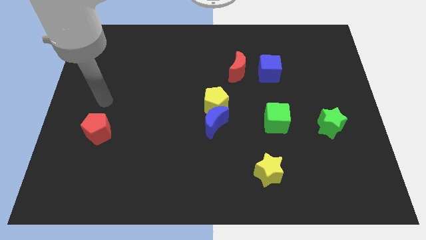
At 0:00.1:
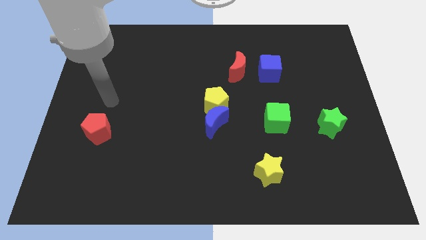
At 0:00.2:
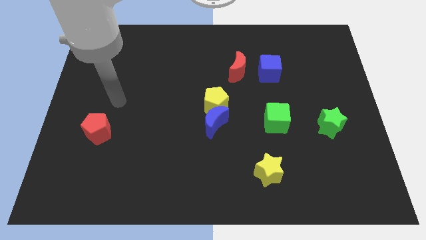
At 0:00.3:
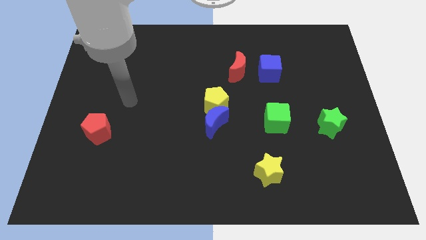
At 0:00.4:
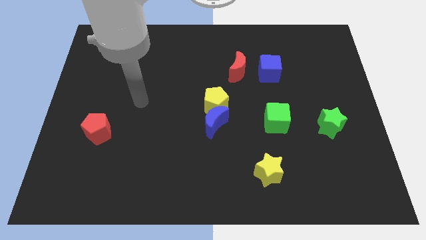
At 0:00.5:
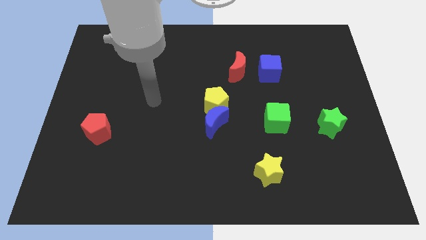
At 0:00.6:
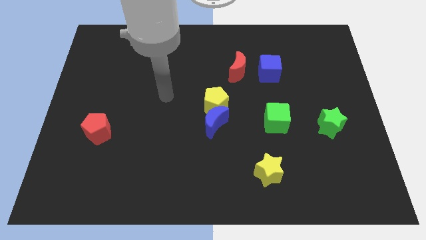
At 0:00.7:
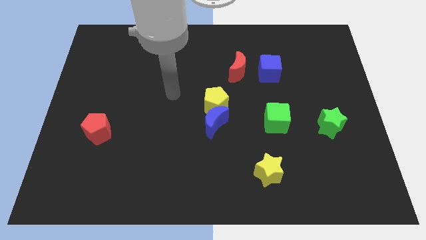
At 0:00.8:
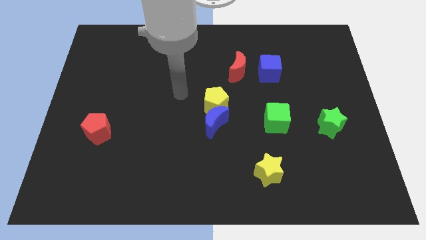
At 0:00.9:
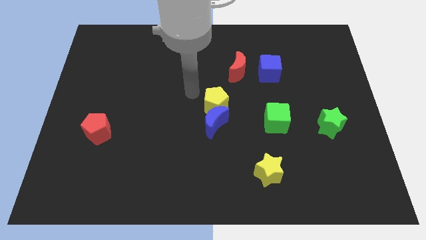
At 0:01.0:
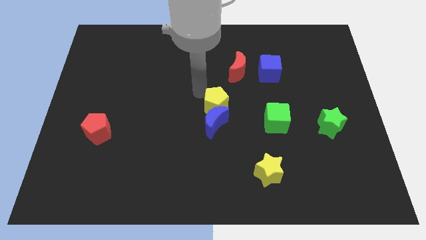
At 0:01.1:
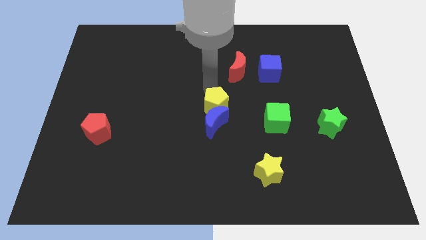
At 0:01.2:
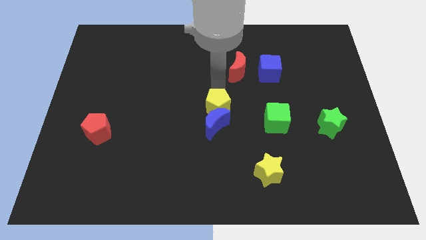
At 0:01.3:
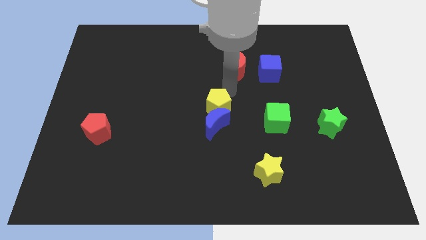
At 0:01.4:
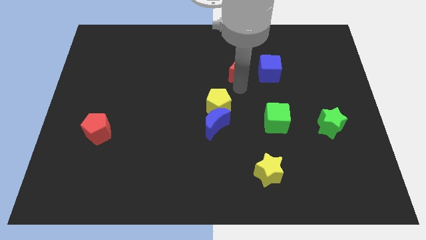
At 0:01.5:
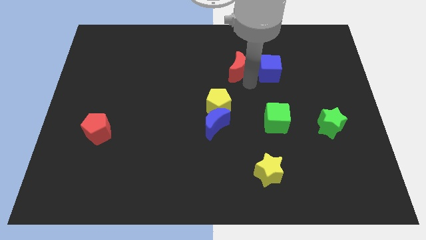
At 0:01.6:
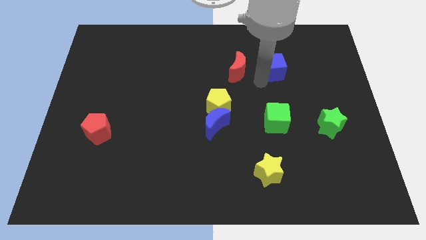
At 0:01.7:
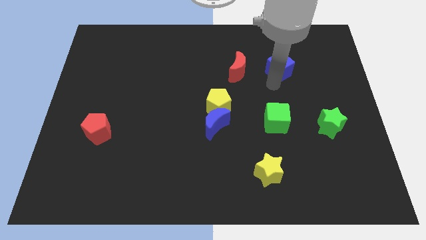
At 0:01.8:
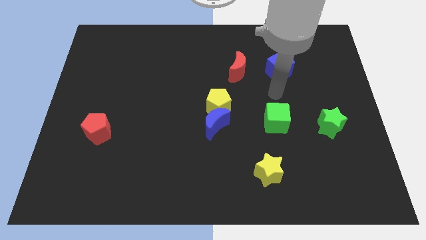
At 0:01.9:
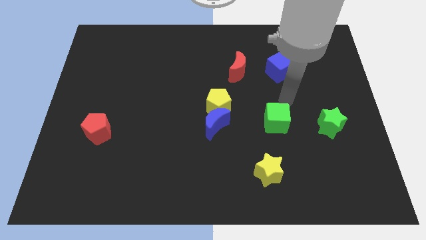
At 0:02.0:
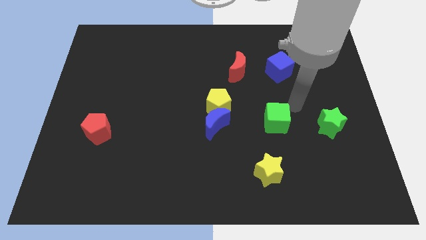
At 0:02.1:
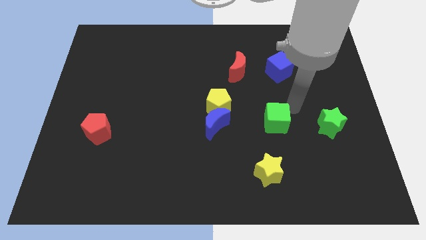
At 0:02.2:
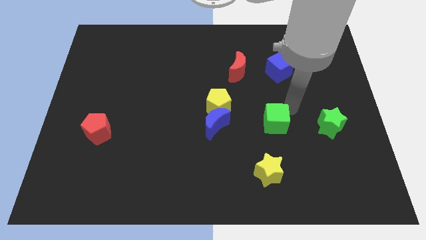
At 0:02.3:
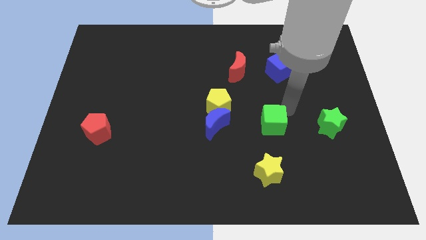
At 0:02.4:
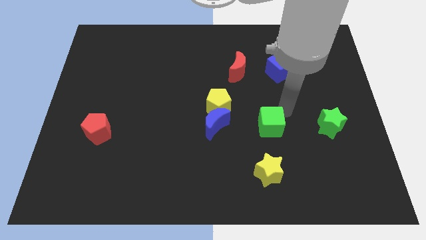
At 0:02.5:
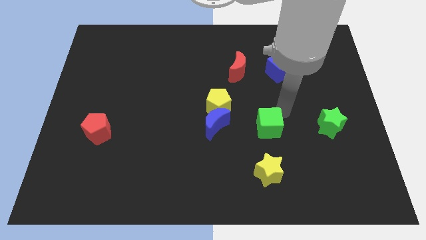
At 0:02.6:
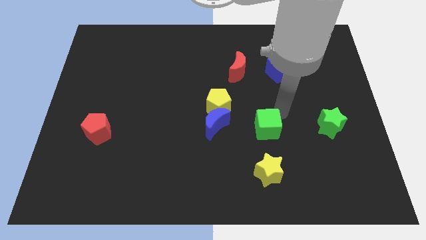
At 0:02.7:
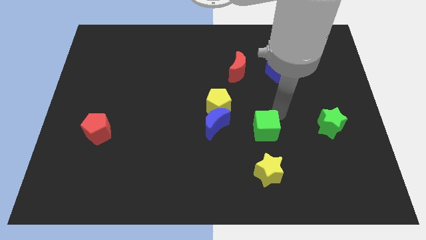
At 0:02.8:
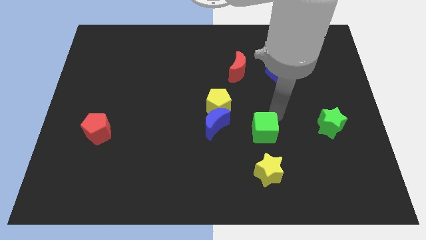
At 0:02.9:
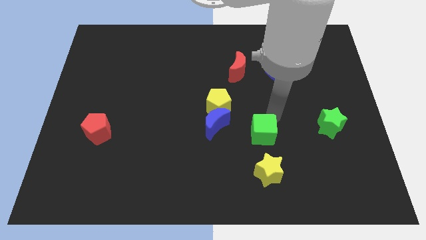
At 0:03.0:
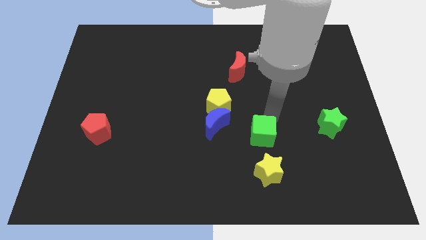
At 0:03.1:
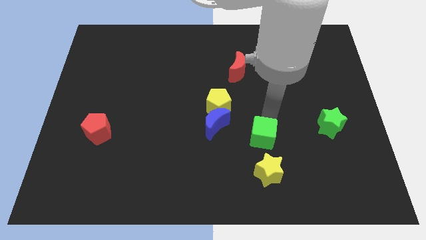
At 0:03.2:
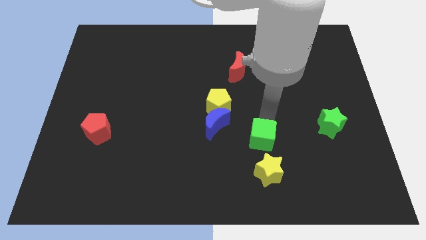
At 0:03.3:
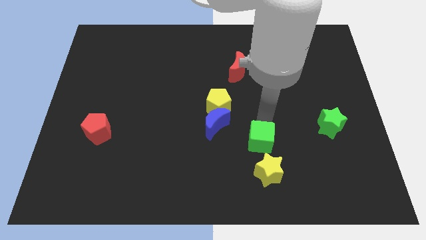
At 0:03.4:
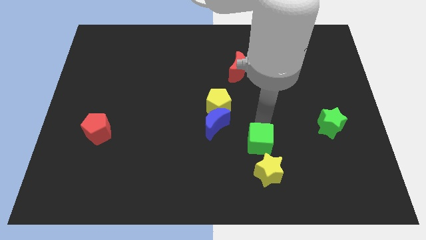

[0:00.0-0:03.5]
move the green cube somewhat downwards and then to the left

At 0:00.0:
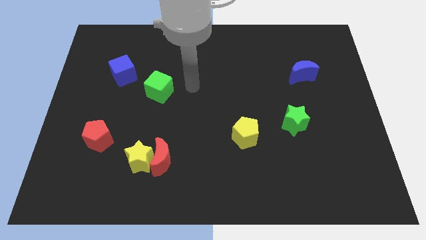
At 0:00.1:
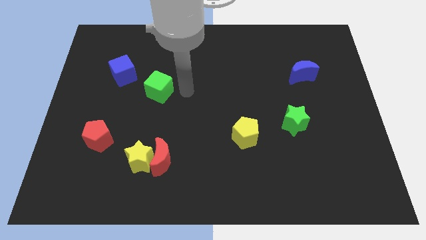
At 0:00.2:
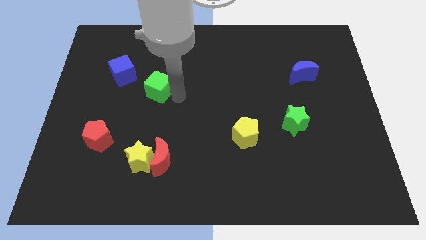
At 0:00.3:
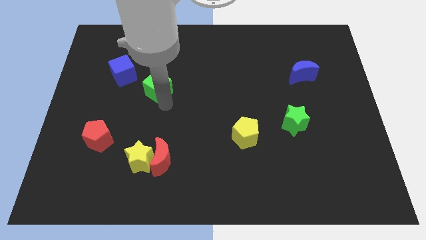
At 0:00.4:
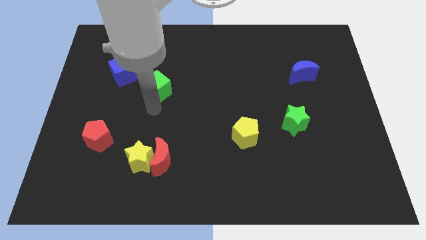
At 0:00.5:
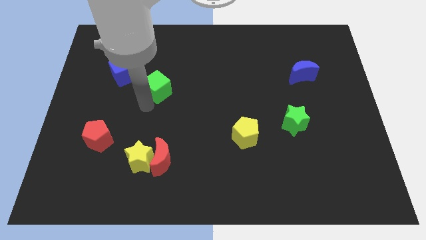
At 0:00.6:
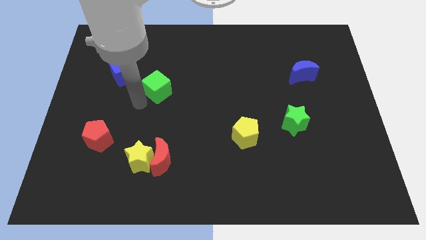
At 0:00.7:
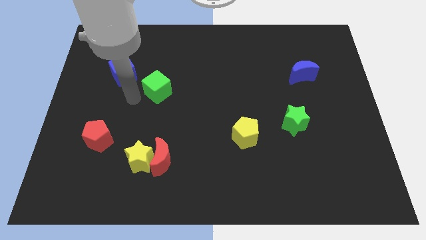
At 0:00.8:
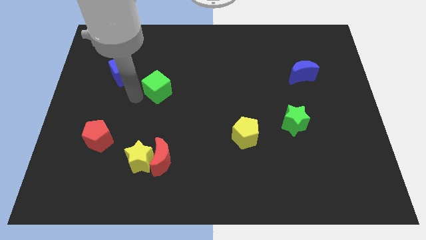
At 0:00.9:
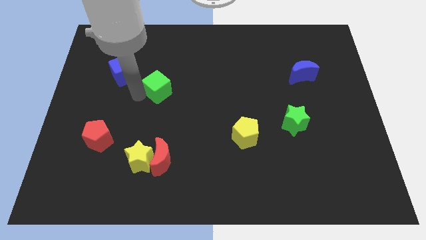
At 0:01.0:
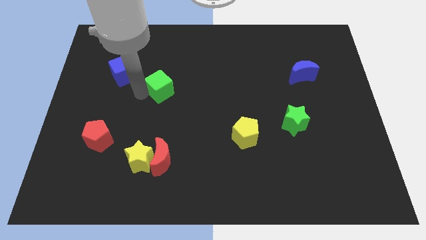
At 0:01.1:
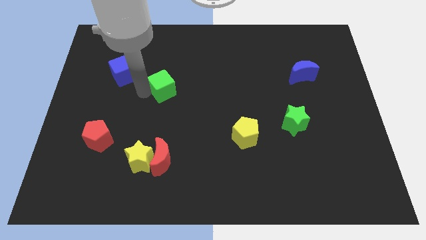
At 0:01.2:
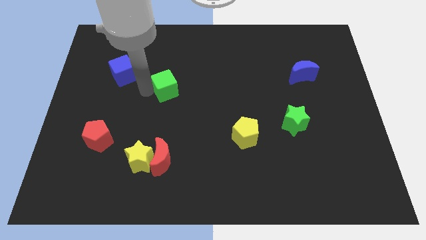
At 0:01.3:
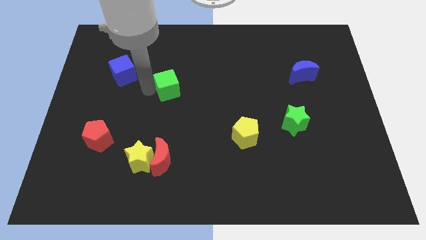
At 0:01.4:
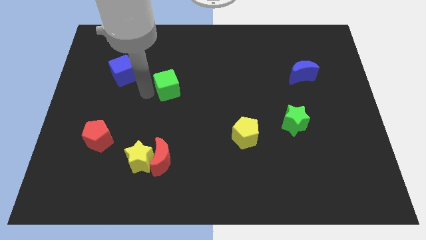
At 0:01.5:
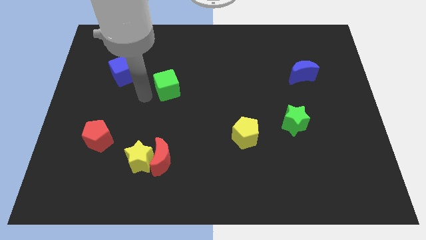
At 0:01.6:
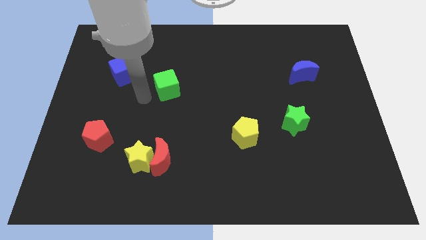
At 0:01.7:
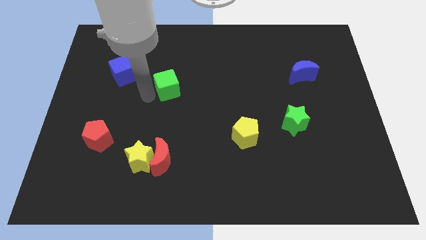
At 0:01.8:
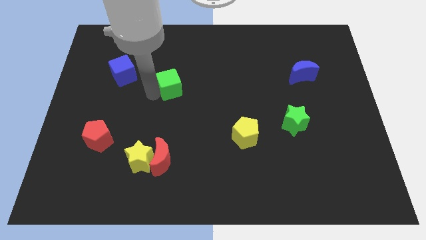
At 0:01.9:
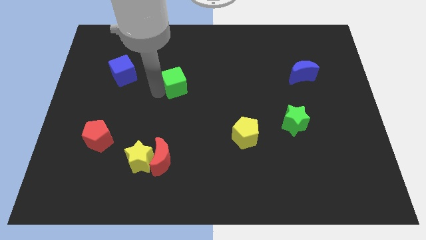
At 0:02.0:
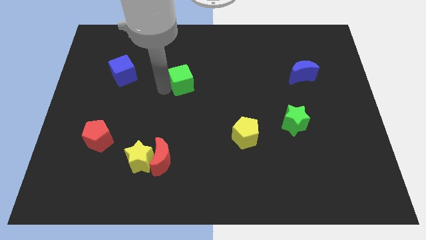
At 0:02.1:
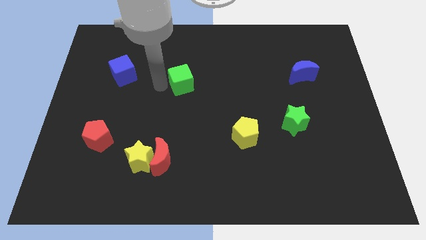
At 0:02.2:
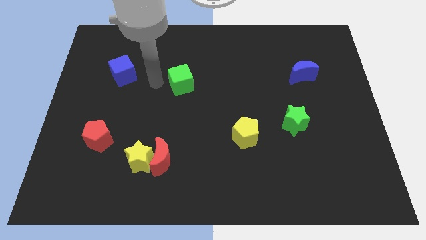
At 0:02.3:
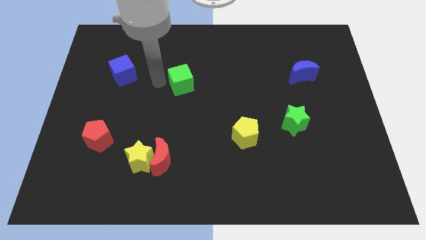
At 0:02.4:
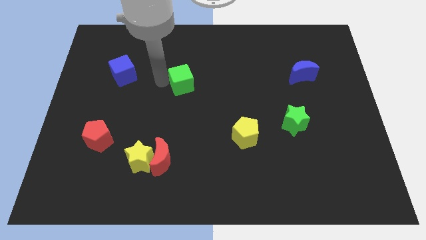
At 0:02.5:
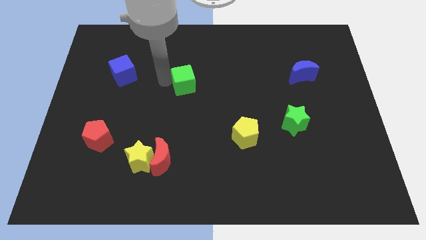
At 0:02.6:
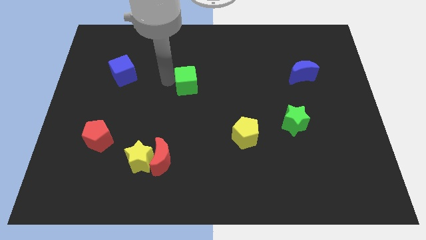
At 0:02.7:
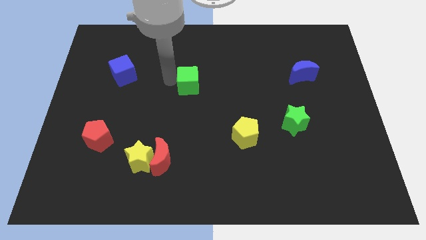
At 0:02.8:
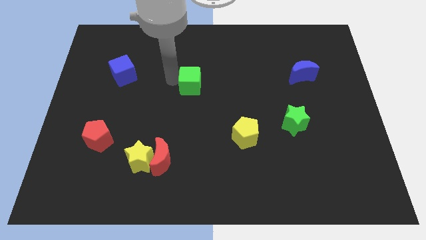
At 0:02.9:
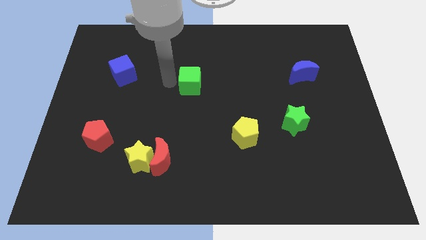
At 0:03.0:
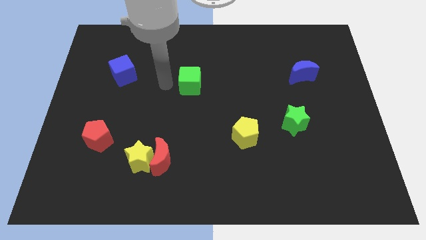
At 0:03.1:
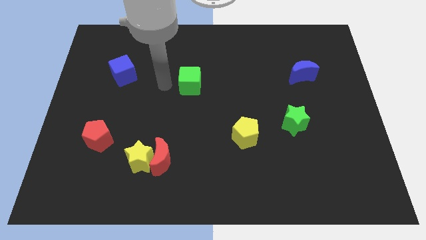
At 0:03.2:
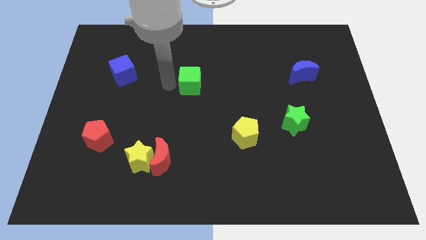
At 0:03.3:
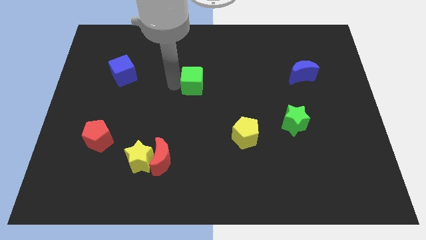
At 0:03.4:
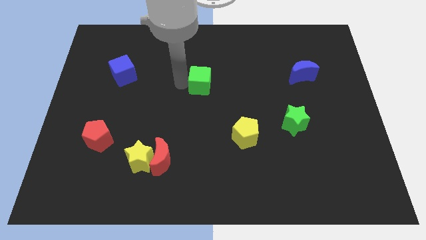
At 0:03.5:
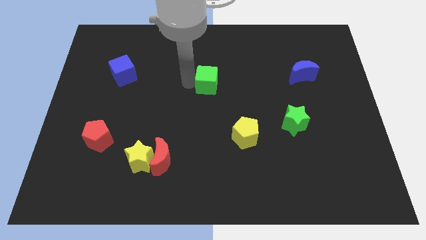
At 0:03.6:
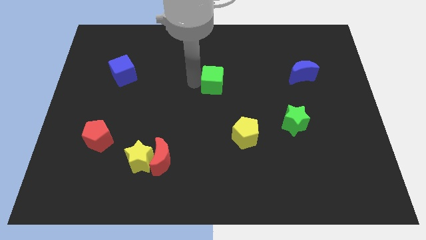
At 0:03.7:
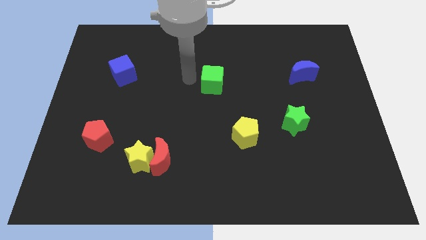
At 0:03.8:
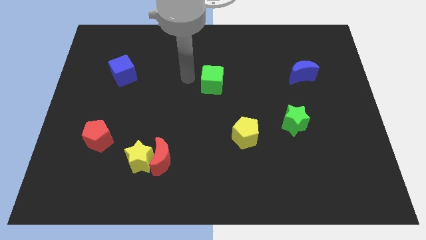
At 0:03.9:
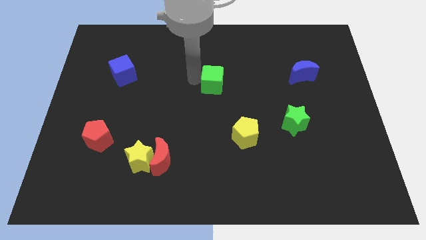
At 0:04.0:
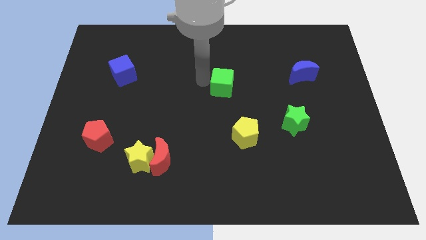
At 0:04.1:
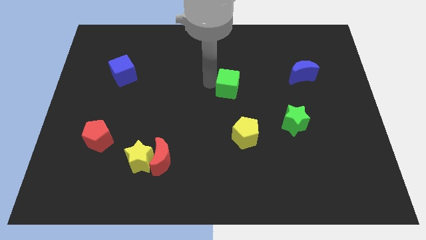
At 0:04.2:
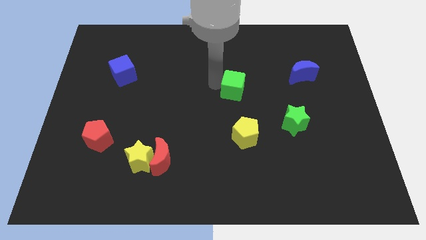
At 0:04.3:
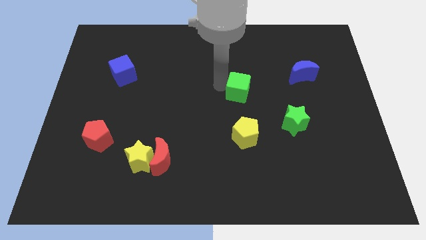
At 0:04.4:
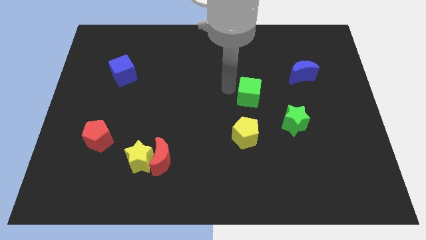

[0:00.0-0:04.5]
move the green cube right
